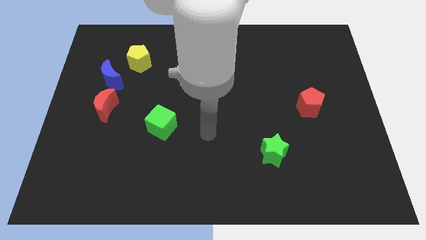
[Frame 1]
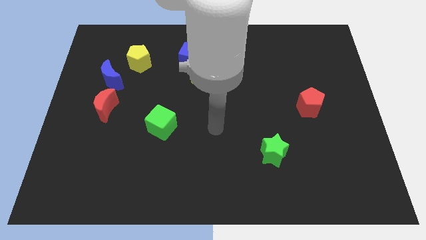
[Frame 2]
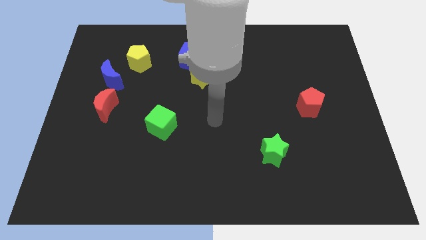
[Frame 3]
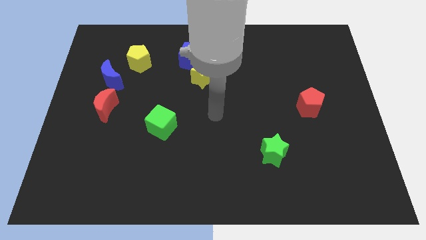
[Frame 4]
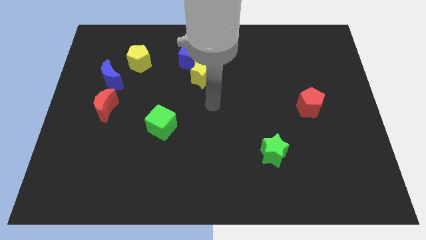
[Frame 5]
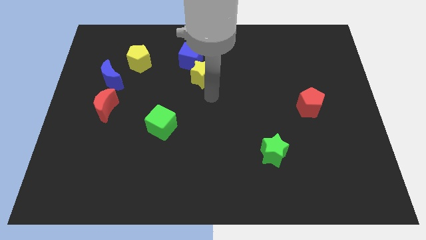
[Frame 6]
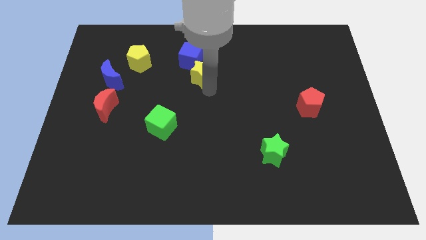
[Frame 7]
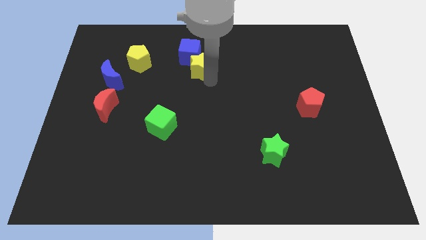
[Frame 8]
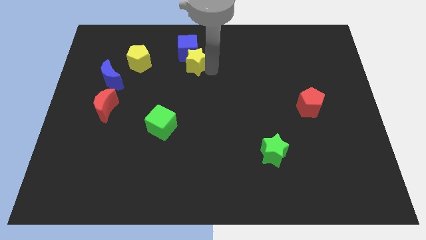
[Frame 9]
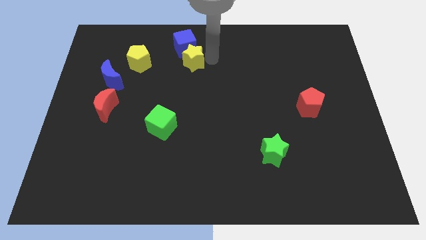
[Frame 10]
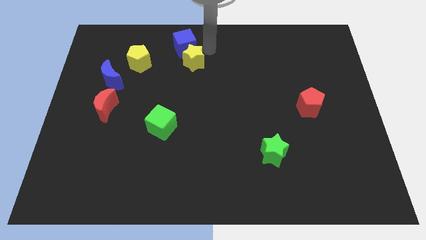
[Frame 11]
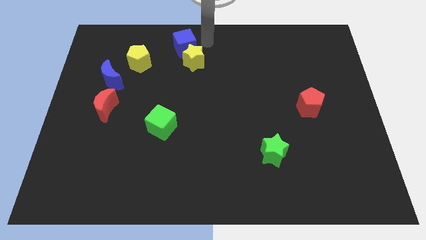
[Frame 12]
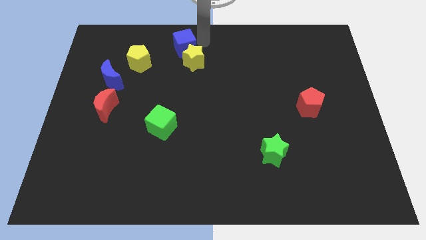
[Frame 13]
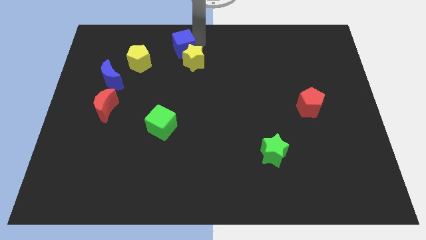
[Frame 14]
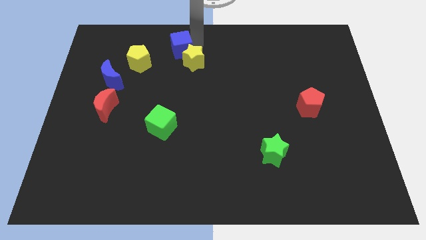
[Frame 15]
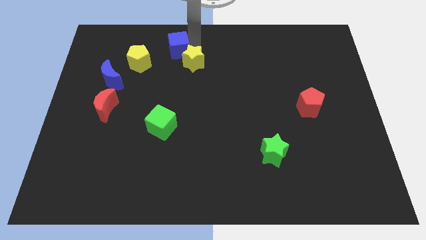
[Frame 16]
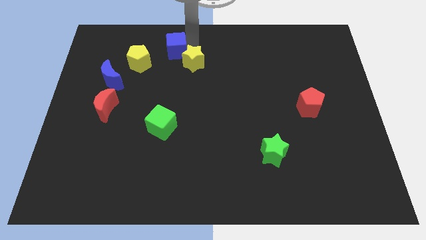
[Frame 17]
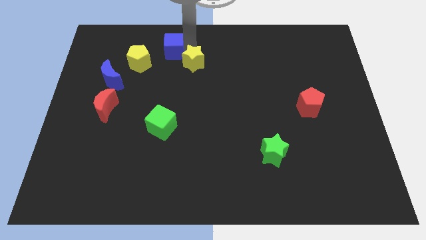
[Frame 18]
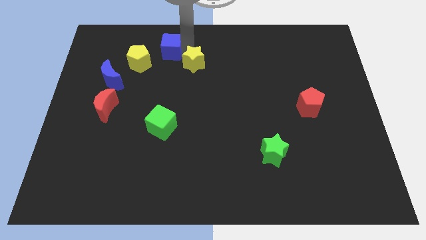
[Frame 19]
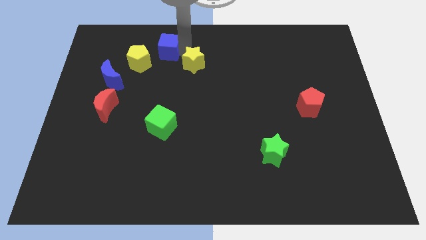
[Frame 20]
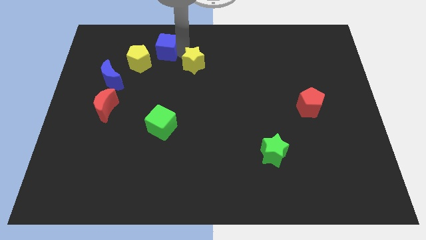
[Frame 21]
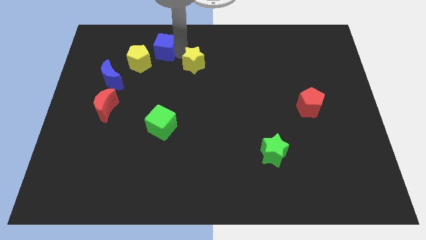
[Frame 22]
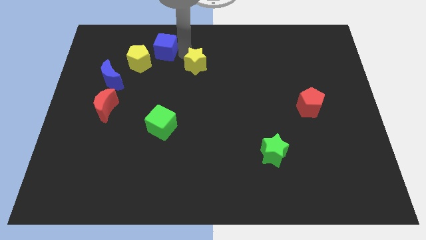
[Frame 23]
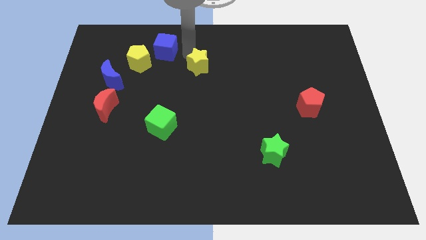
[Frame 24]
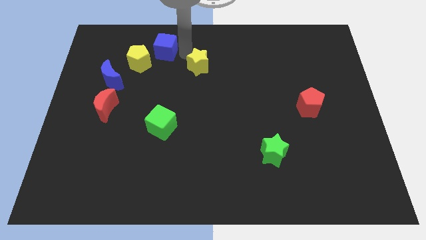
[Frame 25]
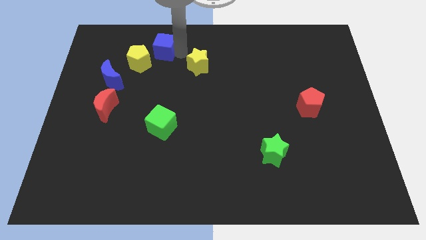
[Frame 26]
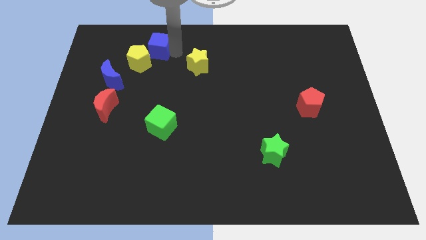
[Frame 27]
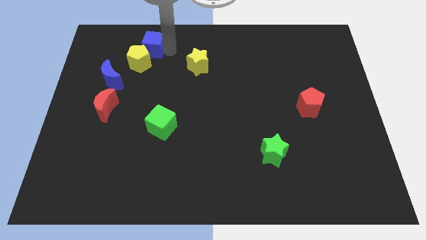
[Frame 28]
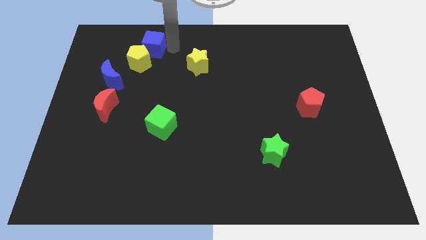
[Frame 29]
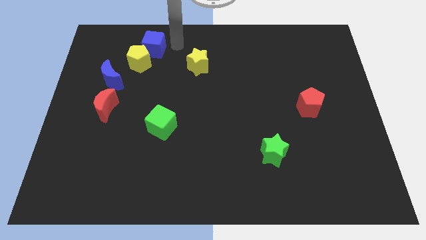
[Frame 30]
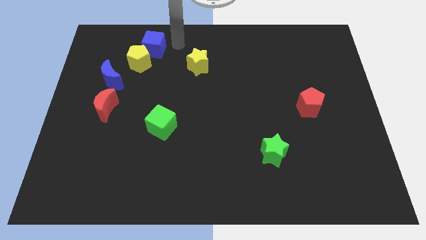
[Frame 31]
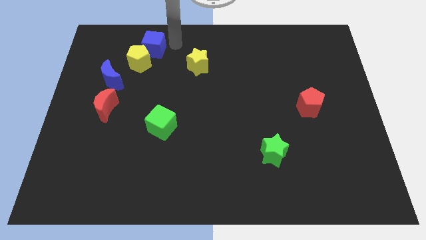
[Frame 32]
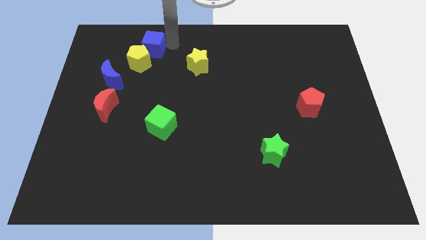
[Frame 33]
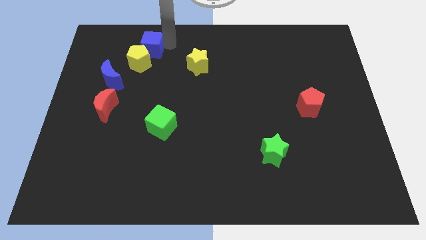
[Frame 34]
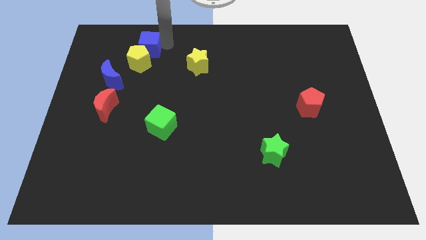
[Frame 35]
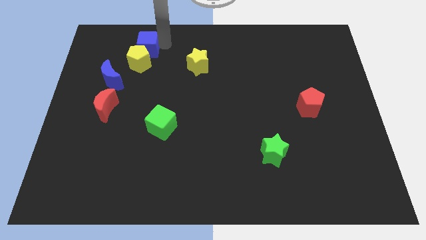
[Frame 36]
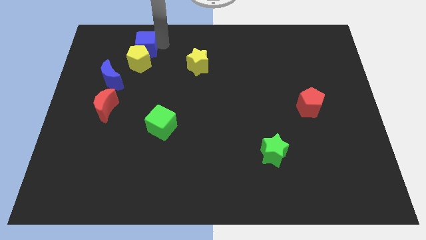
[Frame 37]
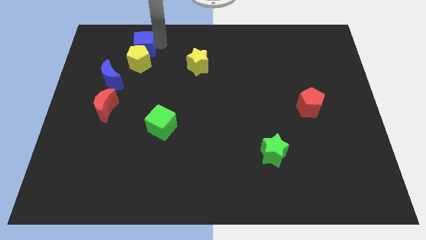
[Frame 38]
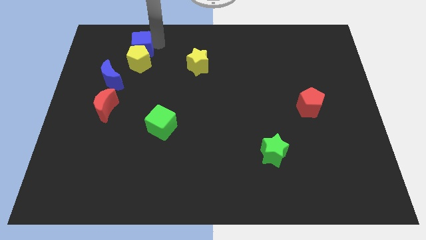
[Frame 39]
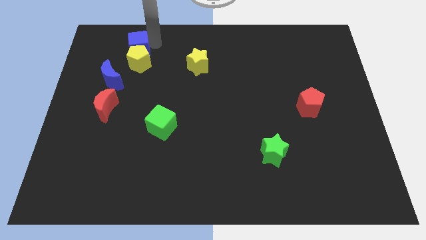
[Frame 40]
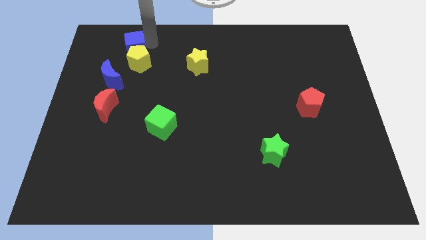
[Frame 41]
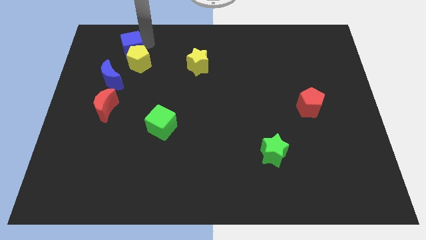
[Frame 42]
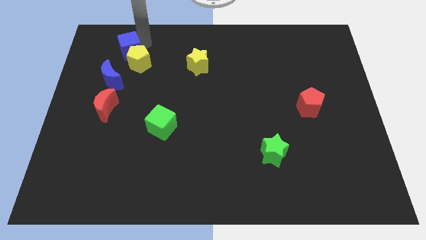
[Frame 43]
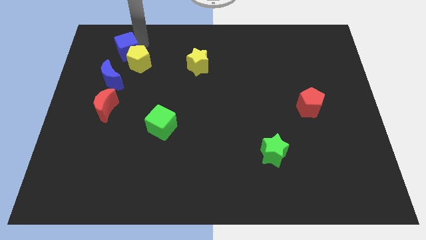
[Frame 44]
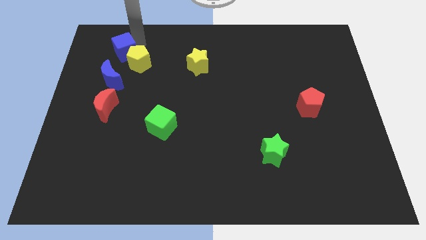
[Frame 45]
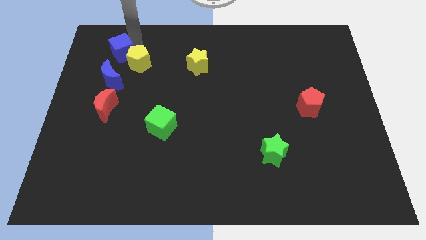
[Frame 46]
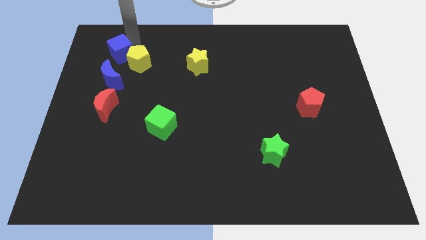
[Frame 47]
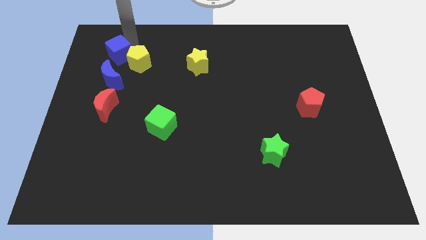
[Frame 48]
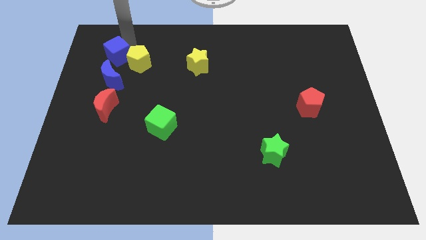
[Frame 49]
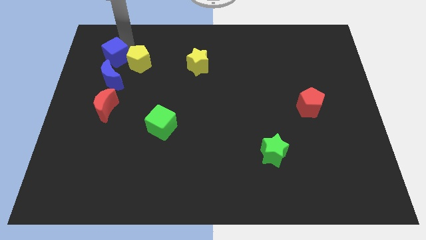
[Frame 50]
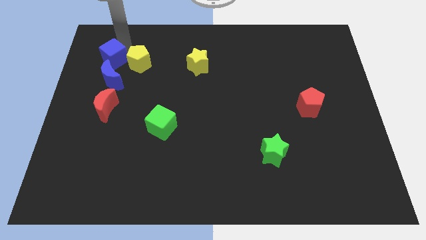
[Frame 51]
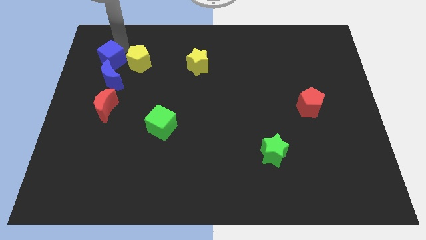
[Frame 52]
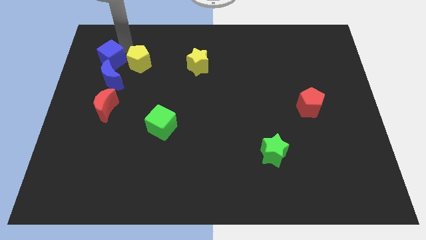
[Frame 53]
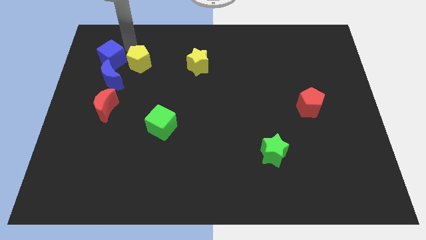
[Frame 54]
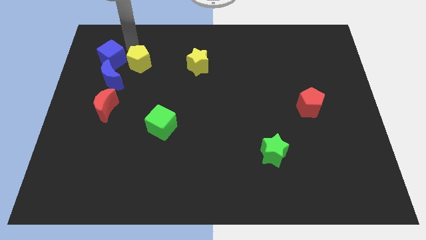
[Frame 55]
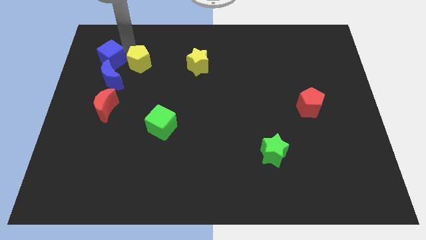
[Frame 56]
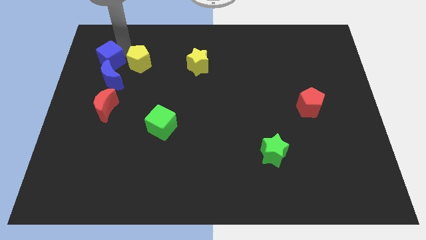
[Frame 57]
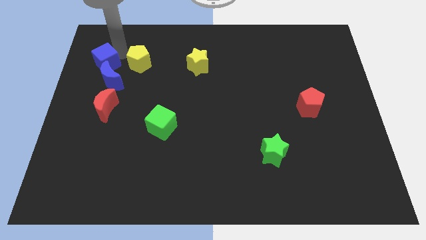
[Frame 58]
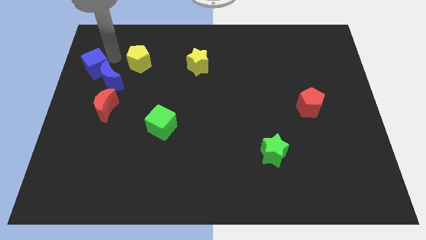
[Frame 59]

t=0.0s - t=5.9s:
slide the blue cube to the left side

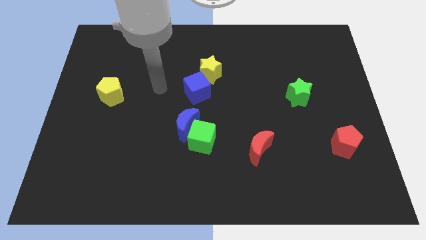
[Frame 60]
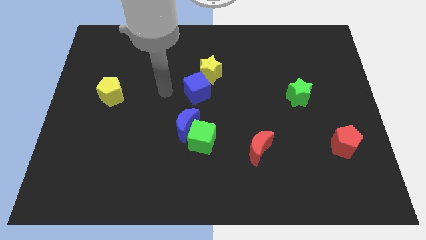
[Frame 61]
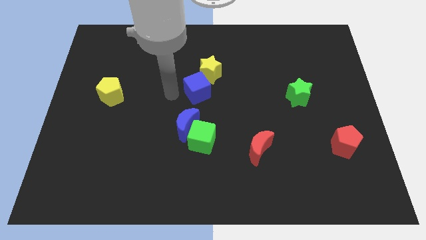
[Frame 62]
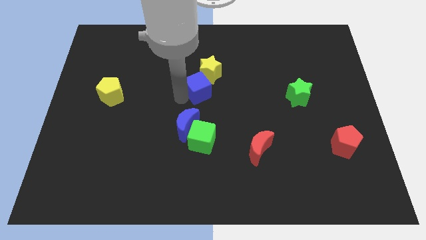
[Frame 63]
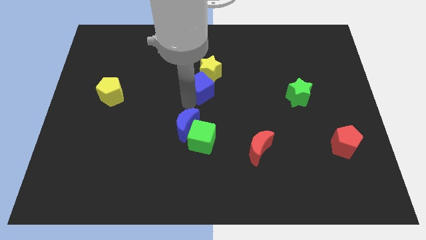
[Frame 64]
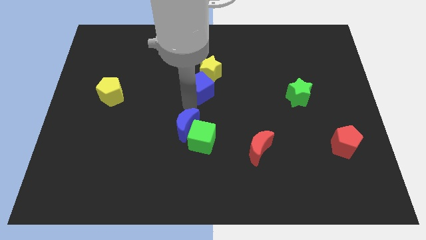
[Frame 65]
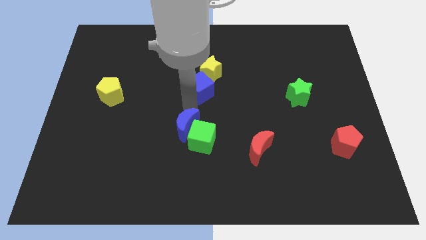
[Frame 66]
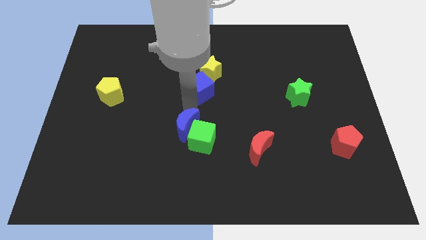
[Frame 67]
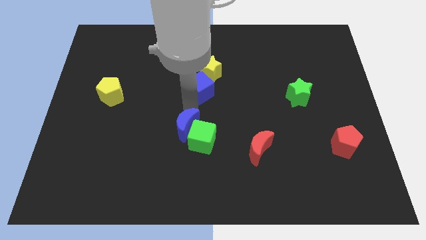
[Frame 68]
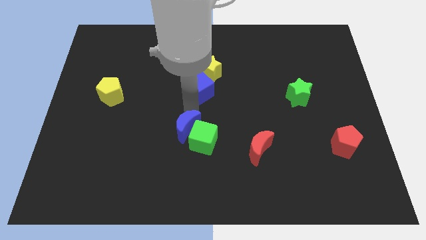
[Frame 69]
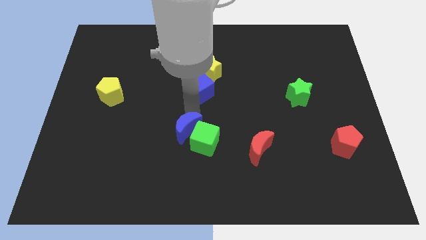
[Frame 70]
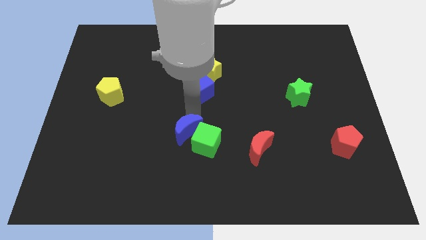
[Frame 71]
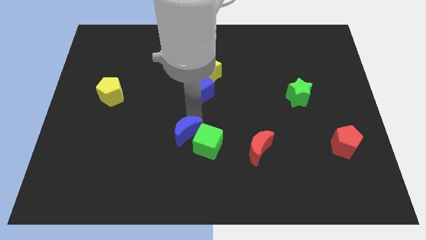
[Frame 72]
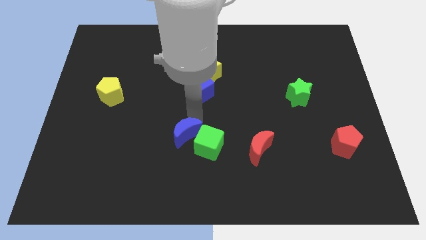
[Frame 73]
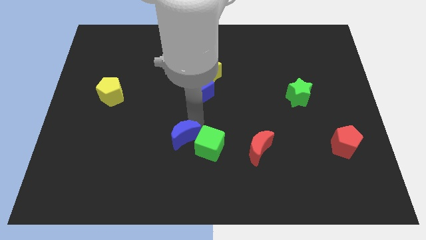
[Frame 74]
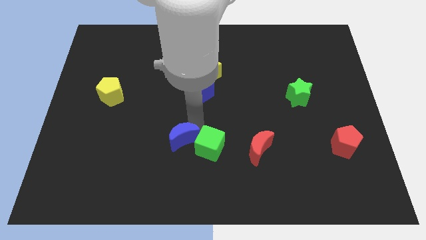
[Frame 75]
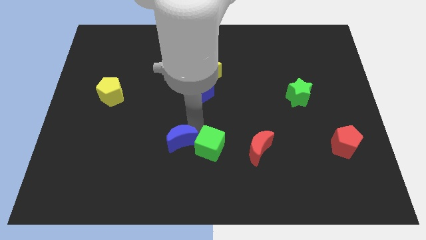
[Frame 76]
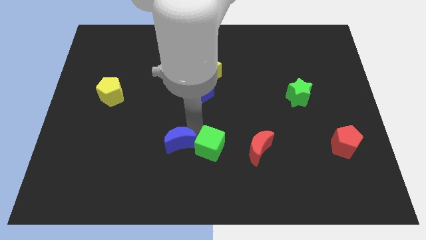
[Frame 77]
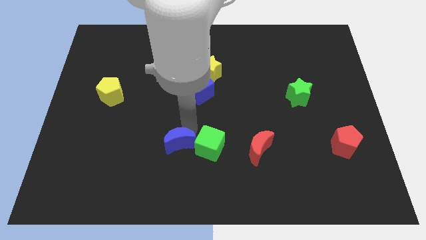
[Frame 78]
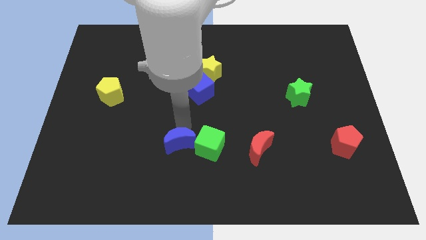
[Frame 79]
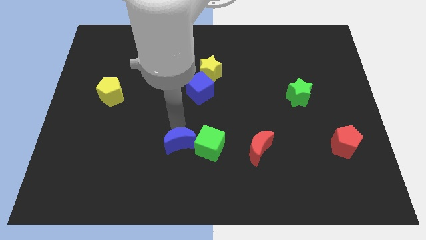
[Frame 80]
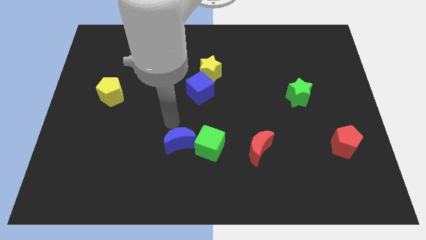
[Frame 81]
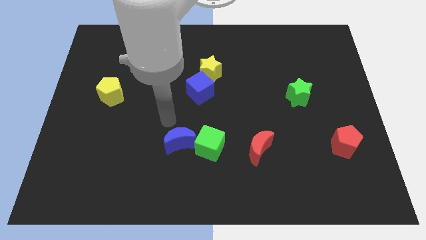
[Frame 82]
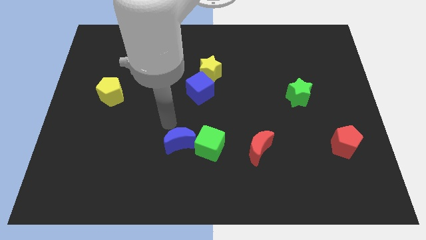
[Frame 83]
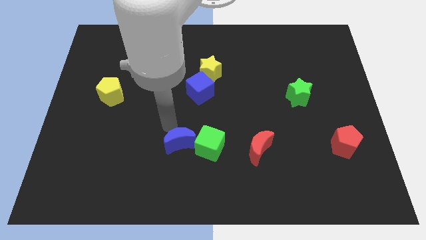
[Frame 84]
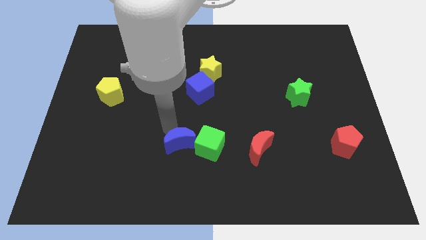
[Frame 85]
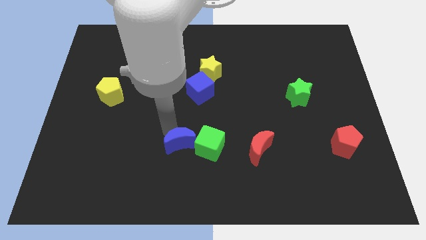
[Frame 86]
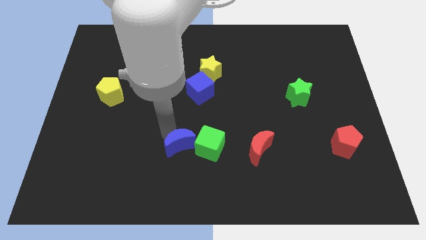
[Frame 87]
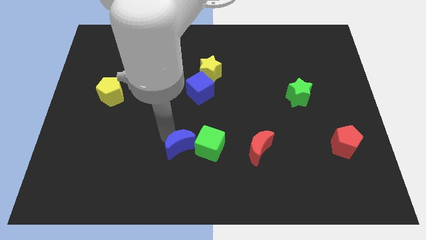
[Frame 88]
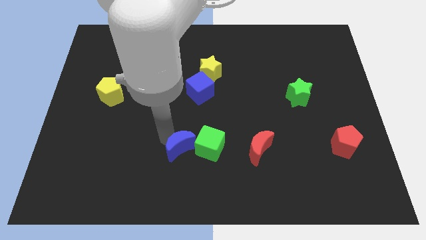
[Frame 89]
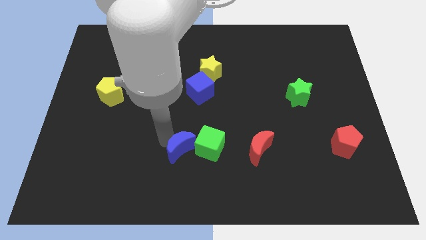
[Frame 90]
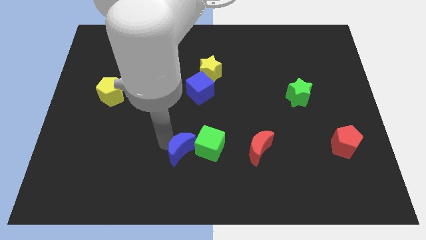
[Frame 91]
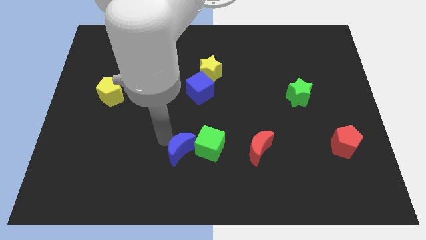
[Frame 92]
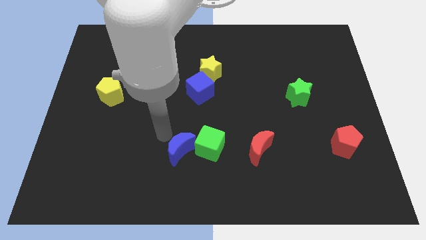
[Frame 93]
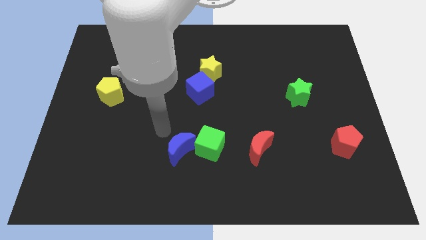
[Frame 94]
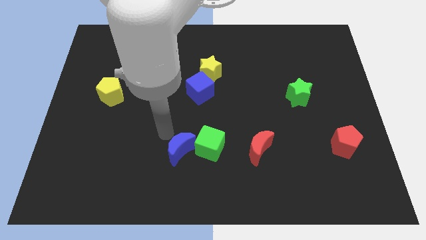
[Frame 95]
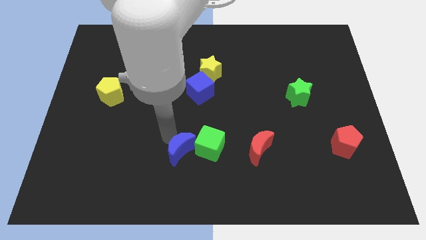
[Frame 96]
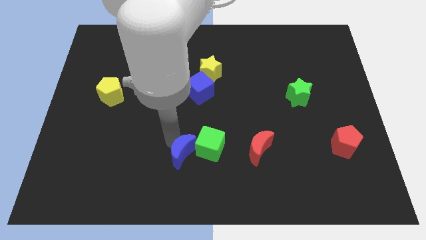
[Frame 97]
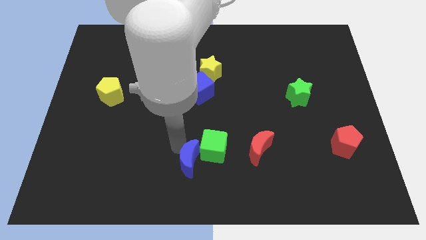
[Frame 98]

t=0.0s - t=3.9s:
push the blue moon to the bottom
